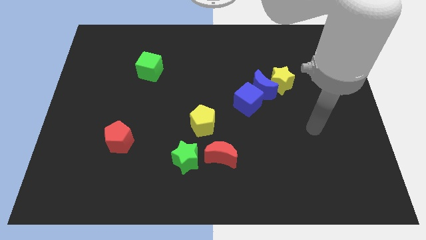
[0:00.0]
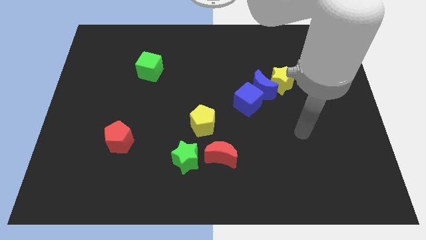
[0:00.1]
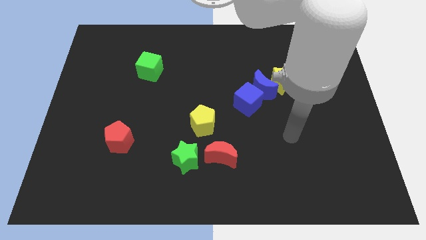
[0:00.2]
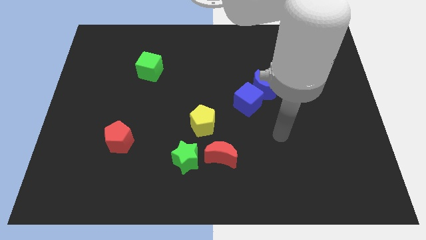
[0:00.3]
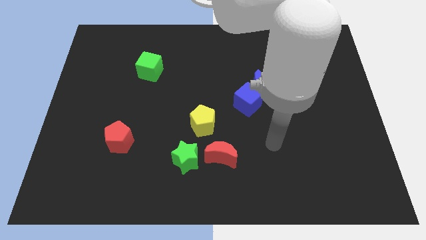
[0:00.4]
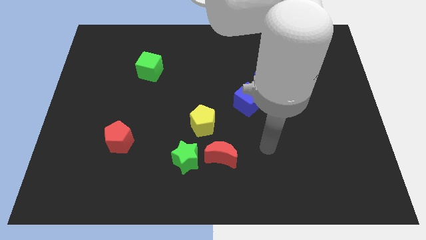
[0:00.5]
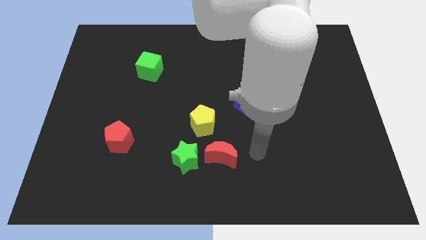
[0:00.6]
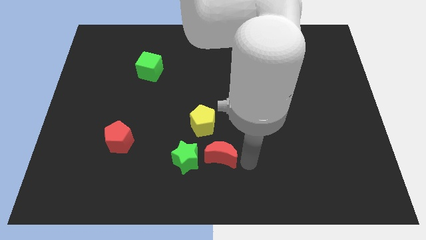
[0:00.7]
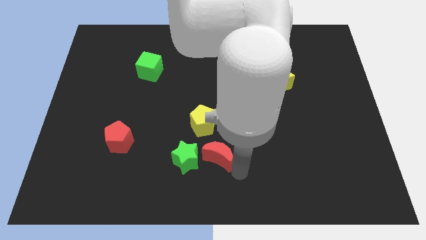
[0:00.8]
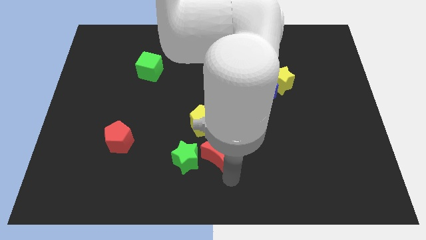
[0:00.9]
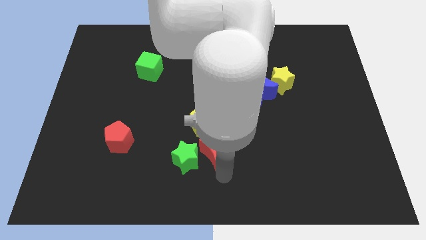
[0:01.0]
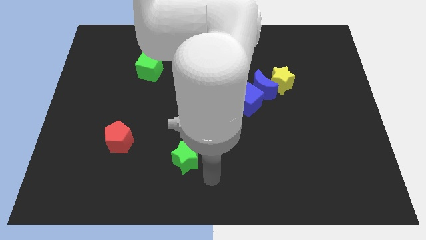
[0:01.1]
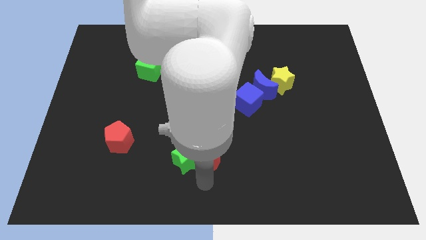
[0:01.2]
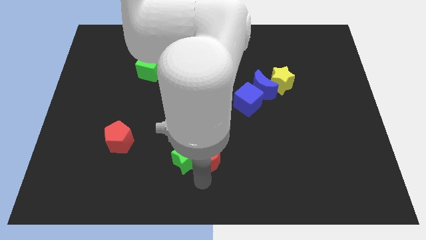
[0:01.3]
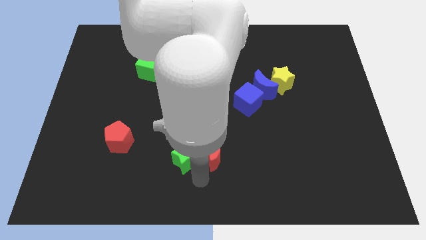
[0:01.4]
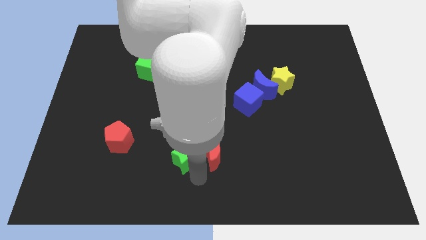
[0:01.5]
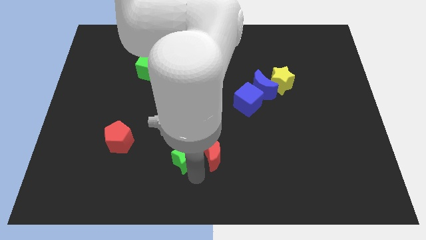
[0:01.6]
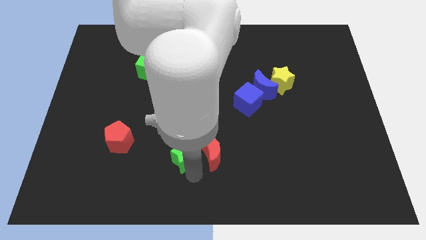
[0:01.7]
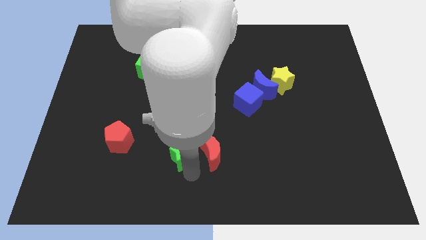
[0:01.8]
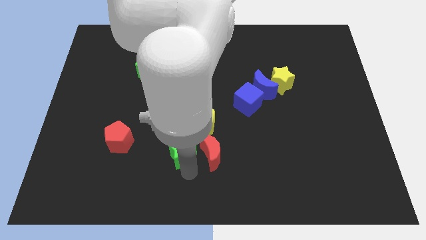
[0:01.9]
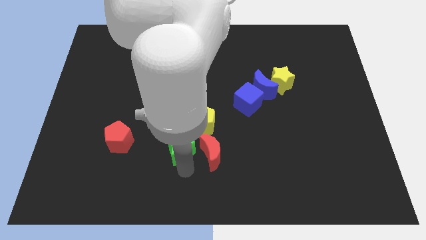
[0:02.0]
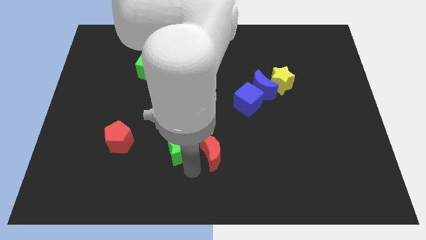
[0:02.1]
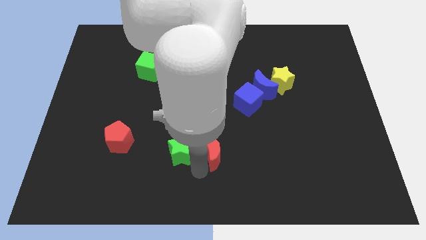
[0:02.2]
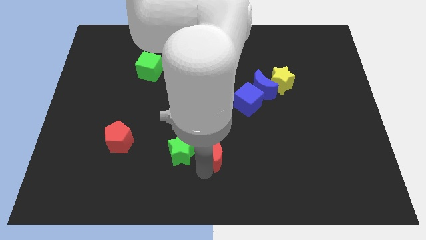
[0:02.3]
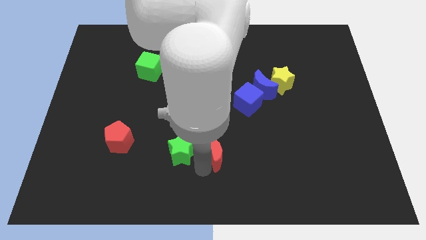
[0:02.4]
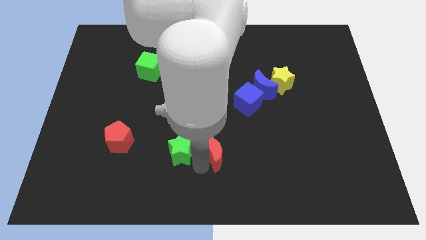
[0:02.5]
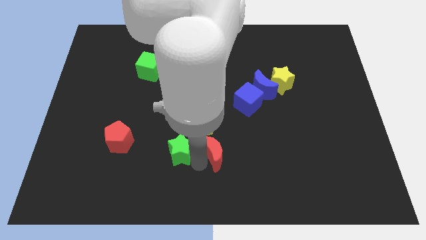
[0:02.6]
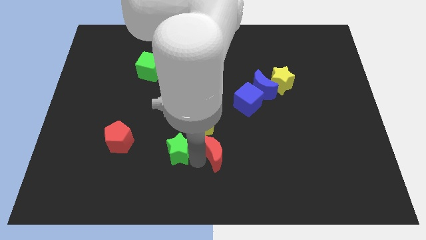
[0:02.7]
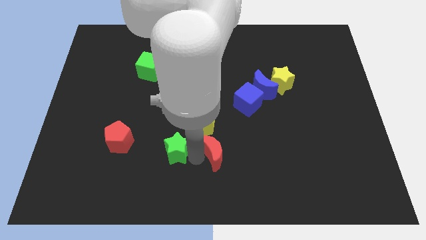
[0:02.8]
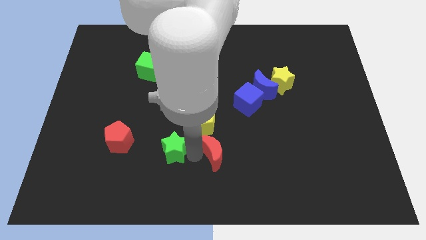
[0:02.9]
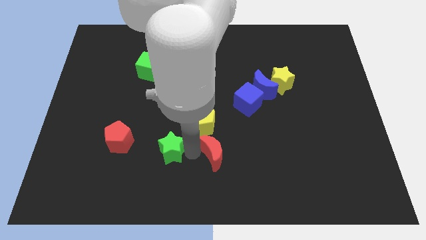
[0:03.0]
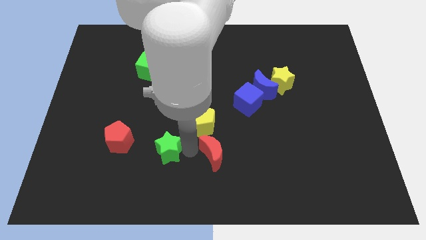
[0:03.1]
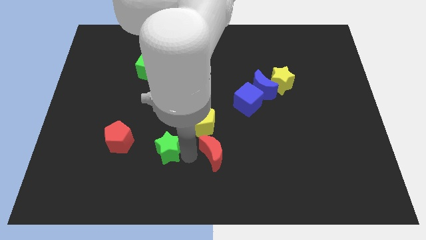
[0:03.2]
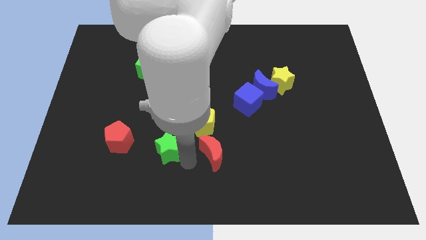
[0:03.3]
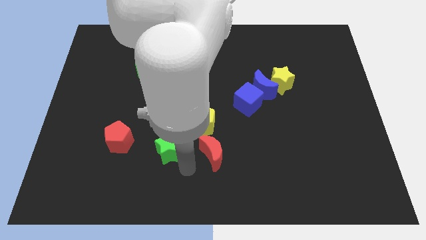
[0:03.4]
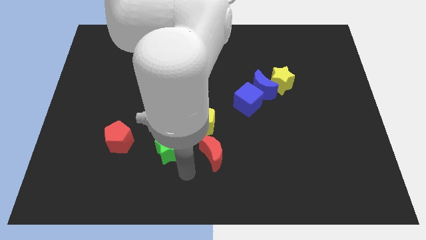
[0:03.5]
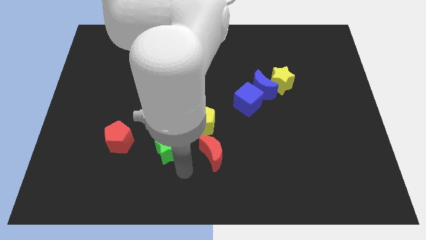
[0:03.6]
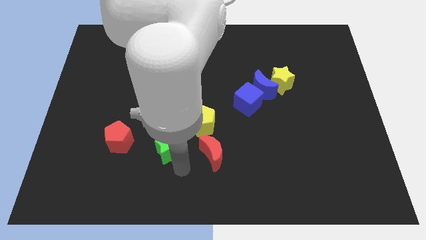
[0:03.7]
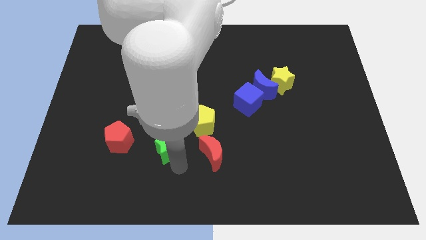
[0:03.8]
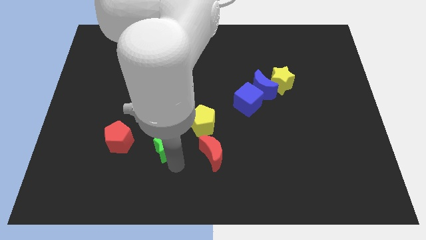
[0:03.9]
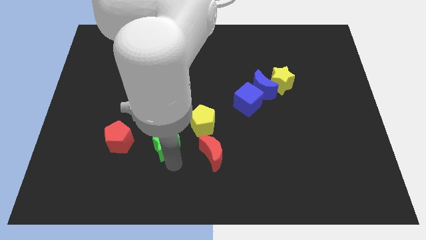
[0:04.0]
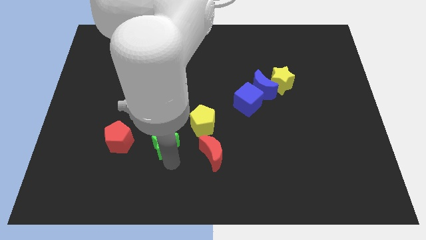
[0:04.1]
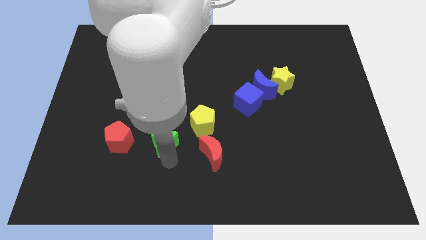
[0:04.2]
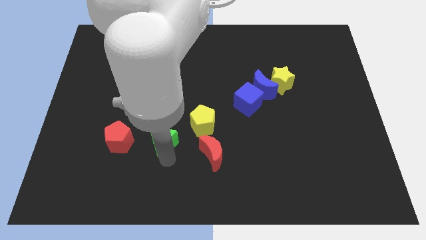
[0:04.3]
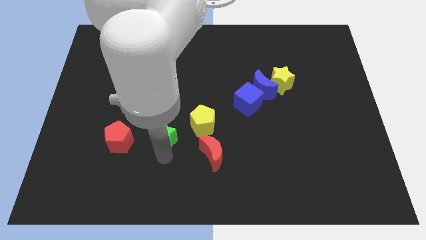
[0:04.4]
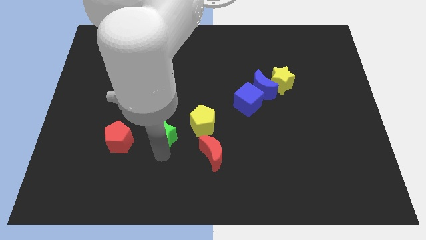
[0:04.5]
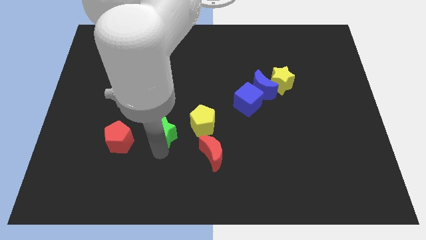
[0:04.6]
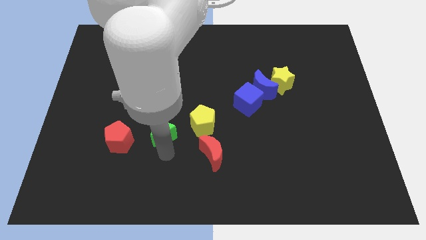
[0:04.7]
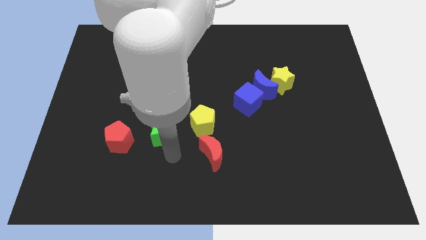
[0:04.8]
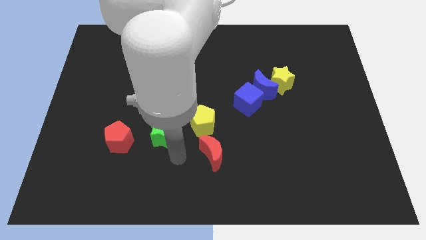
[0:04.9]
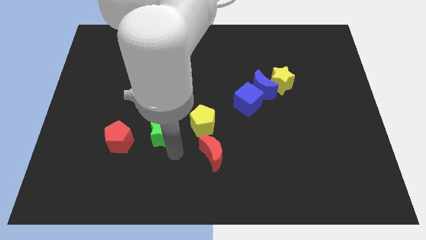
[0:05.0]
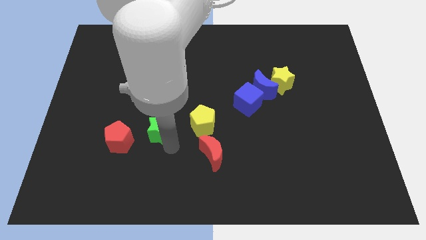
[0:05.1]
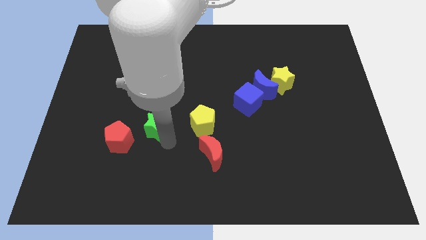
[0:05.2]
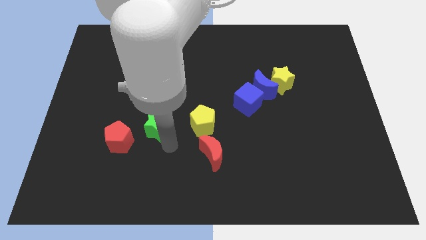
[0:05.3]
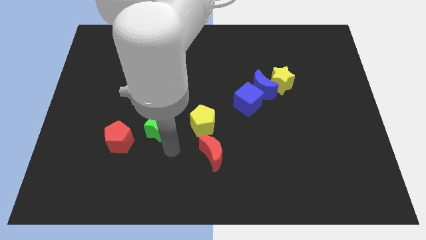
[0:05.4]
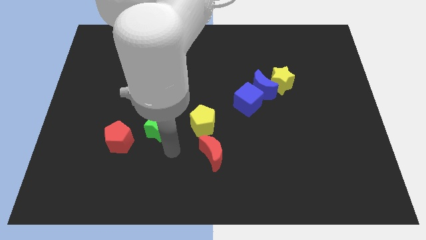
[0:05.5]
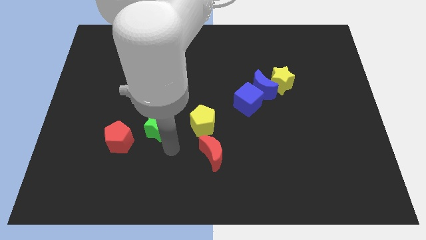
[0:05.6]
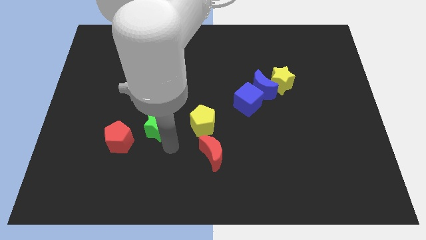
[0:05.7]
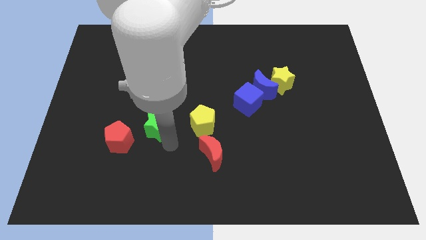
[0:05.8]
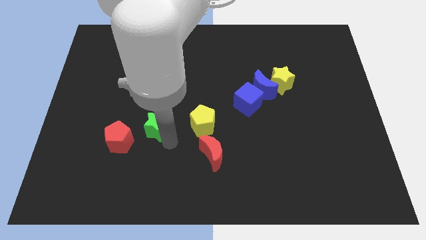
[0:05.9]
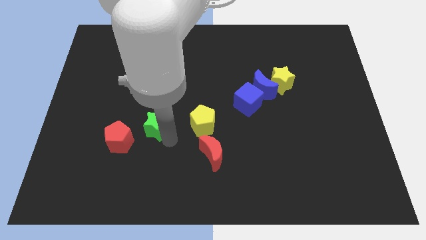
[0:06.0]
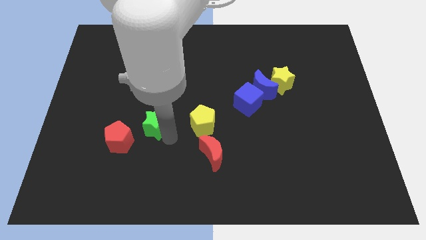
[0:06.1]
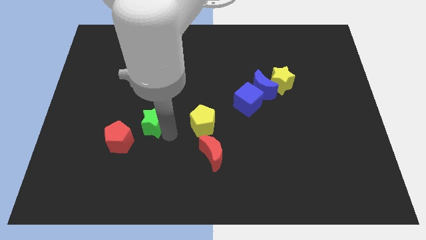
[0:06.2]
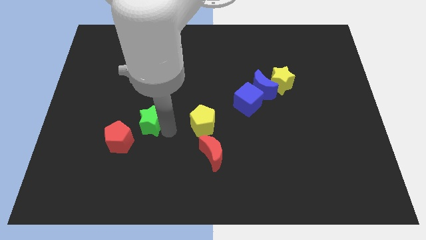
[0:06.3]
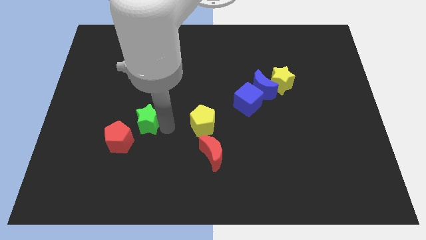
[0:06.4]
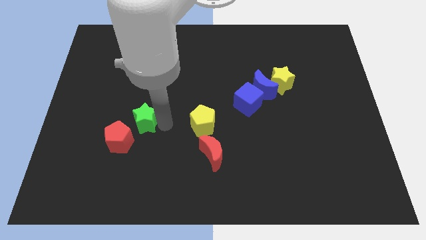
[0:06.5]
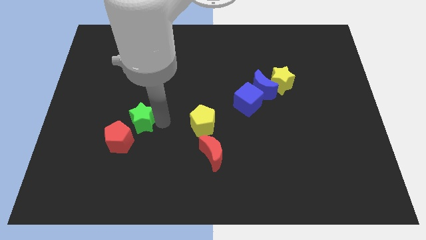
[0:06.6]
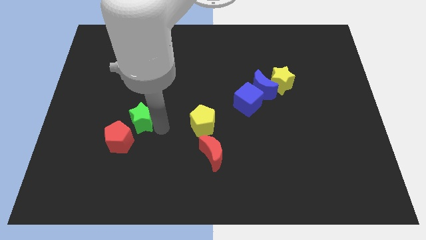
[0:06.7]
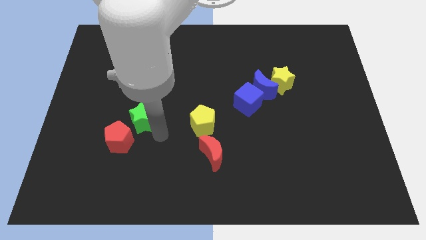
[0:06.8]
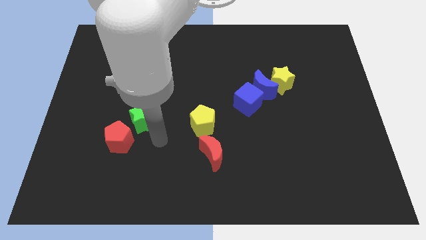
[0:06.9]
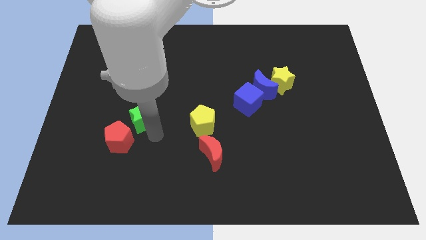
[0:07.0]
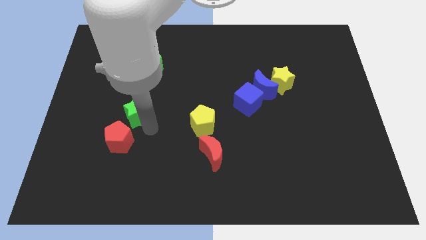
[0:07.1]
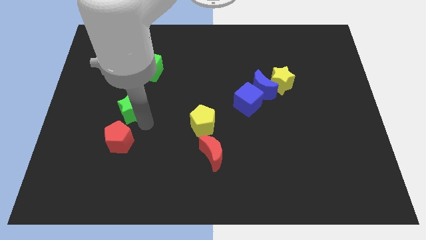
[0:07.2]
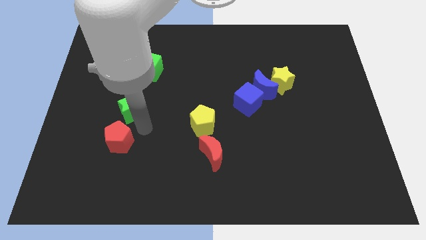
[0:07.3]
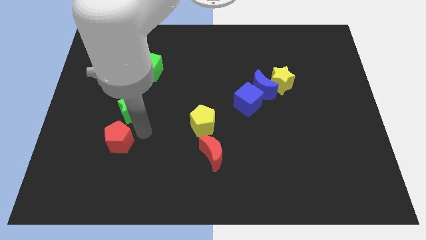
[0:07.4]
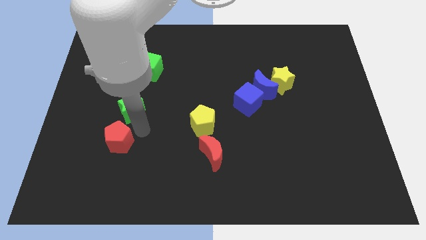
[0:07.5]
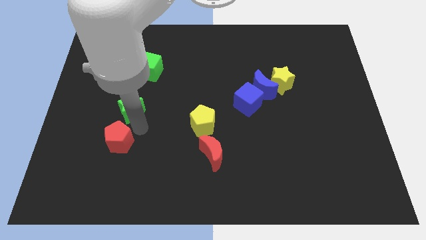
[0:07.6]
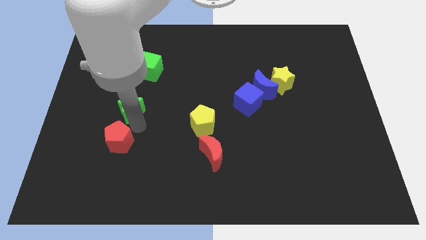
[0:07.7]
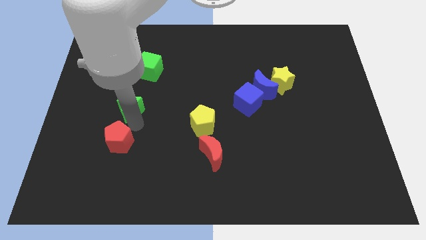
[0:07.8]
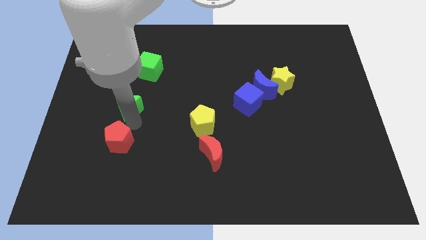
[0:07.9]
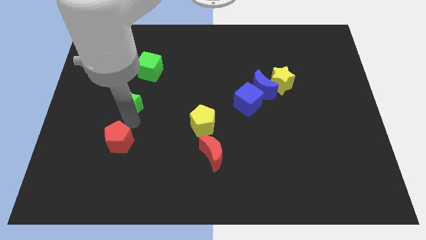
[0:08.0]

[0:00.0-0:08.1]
slide the green star diagonally upwards and to the left

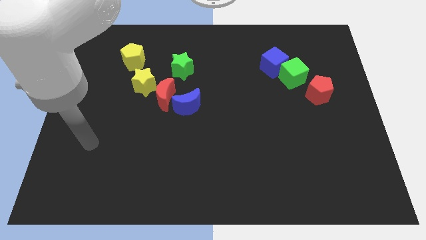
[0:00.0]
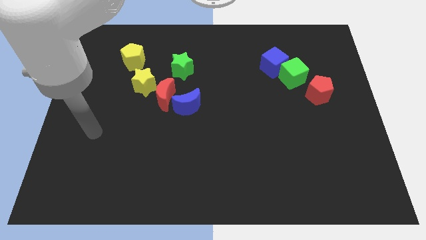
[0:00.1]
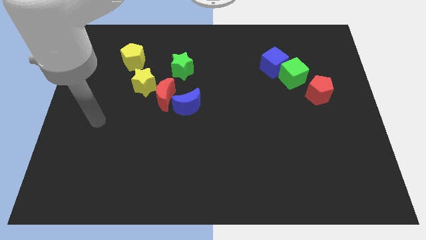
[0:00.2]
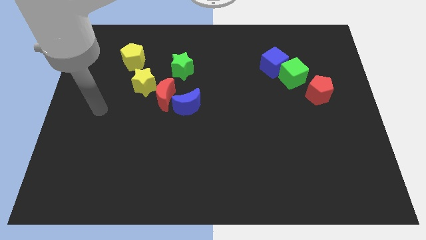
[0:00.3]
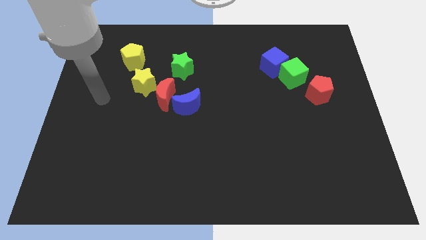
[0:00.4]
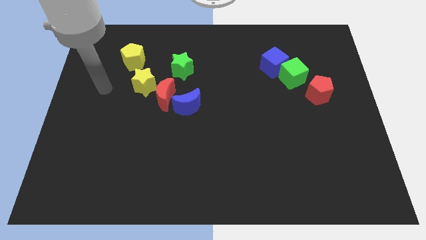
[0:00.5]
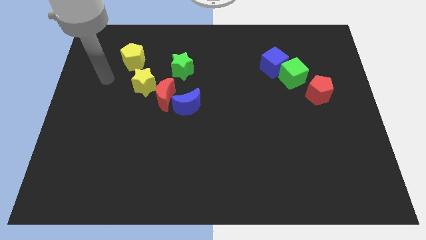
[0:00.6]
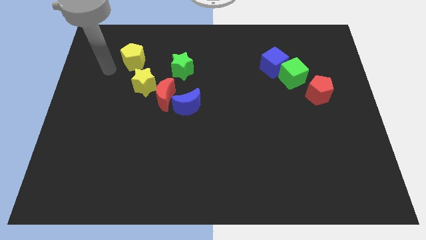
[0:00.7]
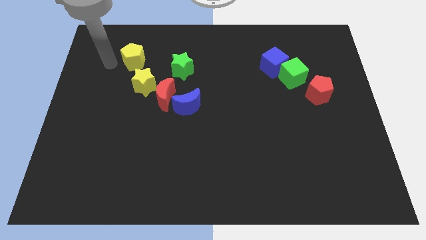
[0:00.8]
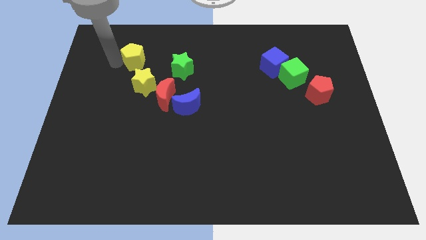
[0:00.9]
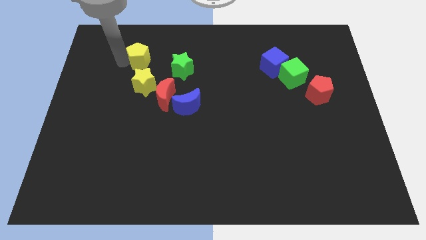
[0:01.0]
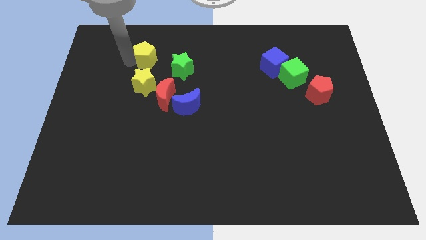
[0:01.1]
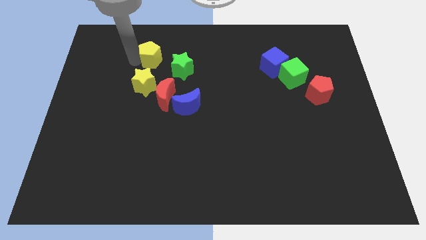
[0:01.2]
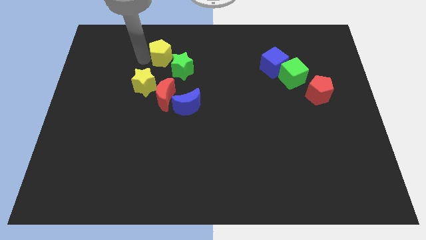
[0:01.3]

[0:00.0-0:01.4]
slightly push the yellow pentagon to the right
